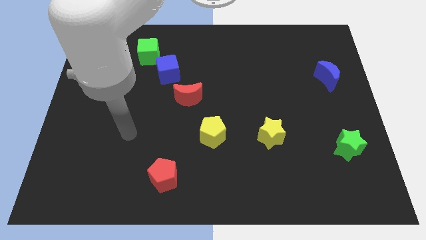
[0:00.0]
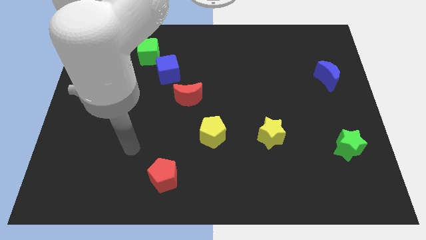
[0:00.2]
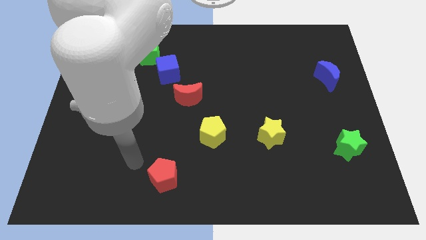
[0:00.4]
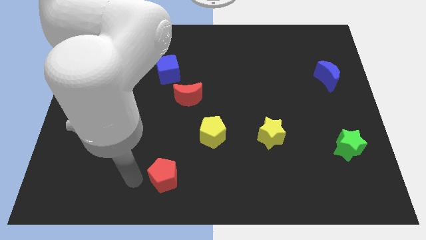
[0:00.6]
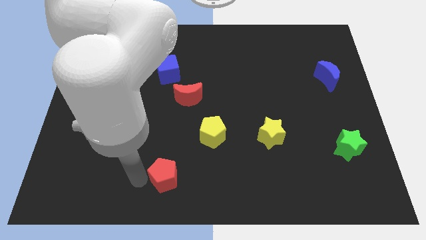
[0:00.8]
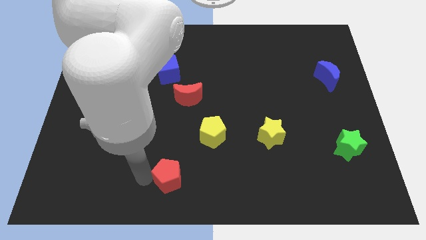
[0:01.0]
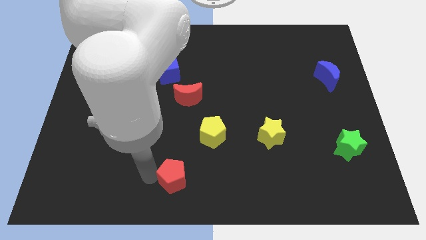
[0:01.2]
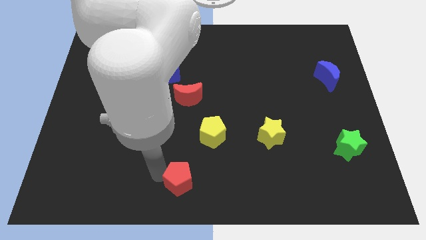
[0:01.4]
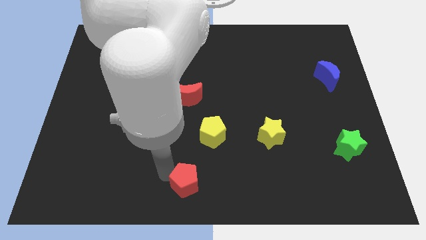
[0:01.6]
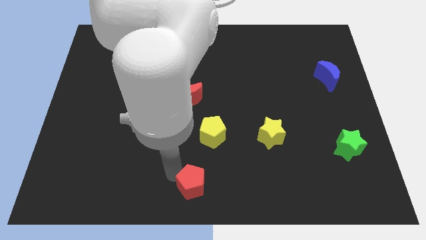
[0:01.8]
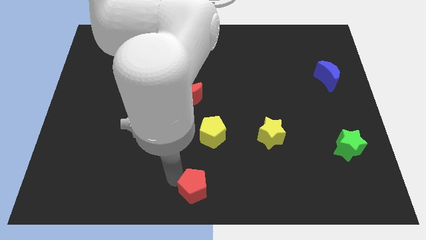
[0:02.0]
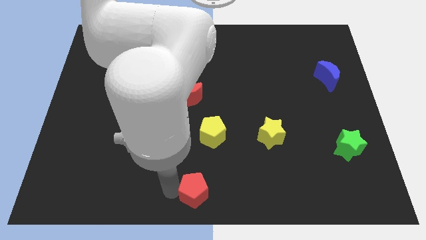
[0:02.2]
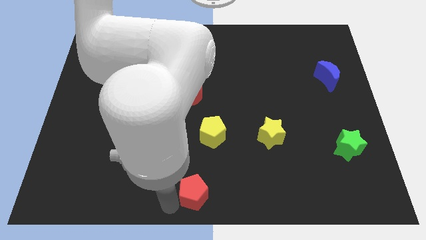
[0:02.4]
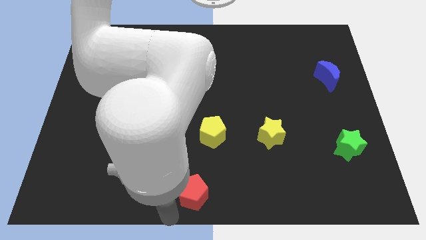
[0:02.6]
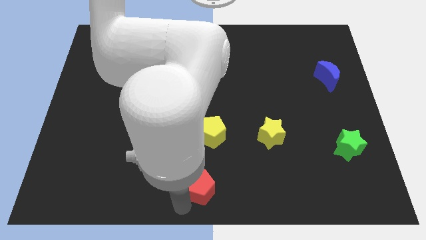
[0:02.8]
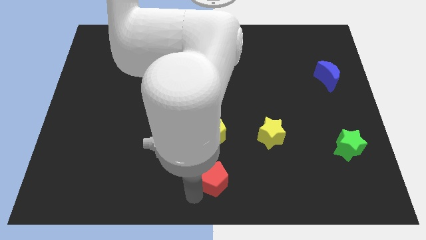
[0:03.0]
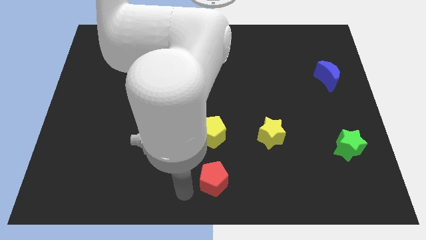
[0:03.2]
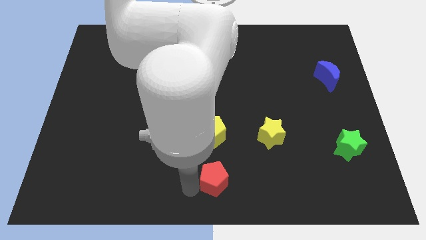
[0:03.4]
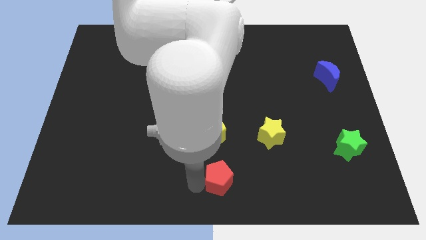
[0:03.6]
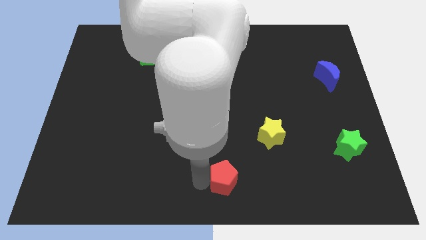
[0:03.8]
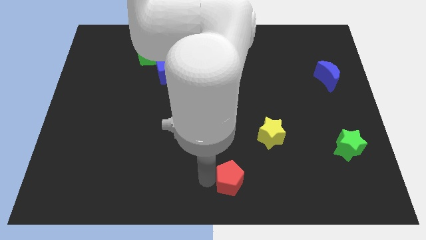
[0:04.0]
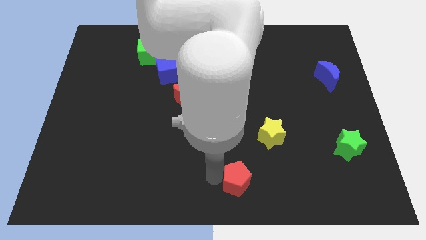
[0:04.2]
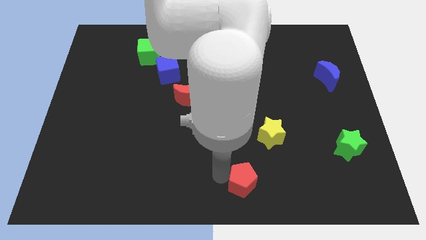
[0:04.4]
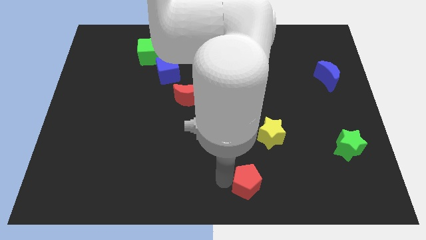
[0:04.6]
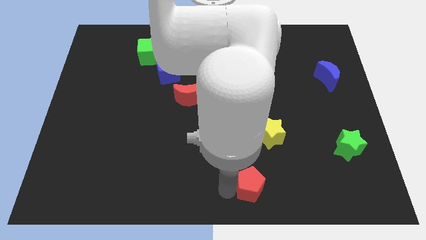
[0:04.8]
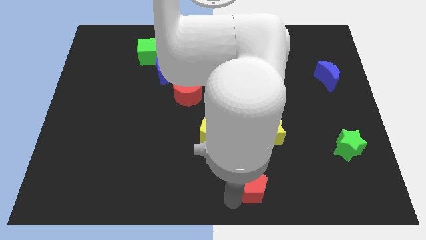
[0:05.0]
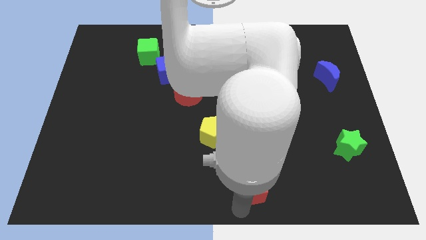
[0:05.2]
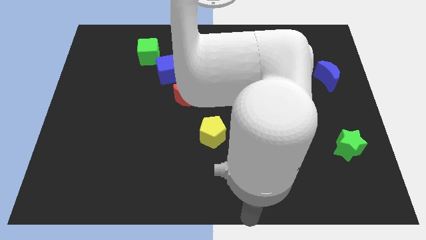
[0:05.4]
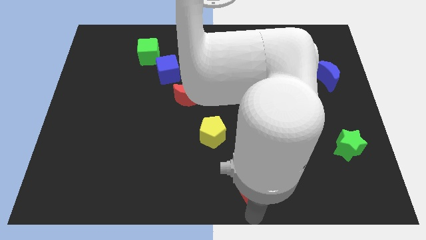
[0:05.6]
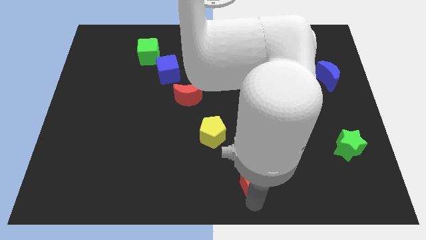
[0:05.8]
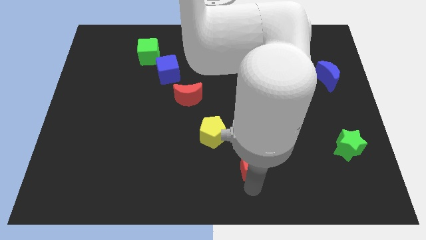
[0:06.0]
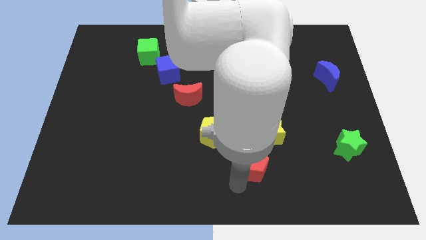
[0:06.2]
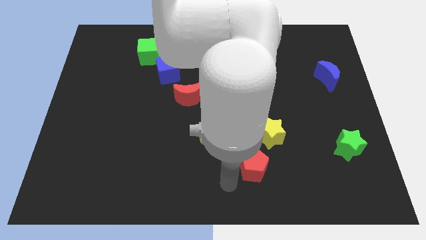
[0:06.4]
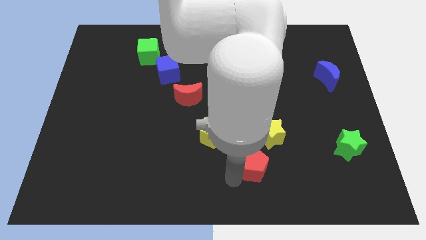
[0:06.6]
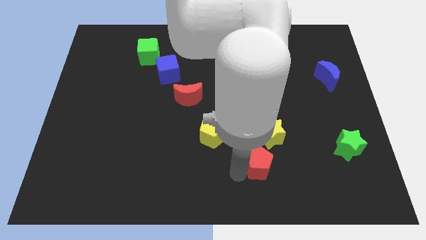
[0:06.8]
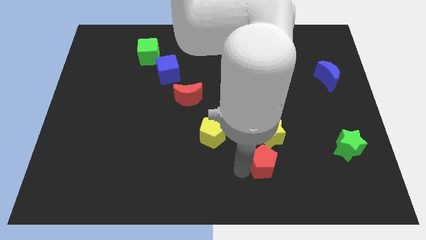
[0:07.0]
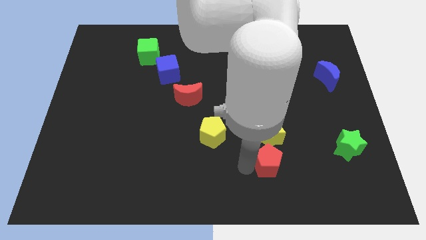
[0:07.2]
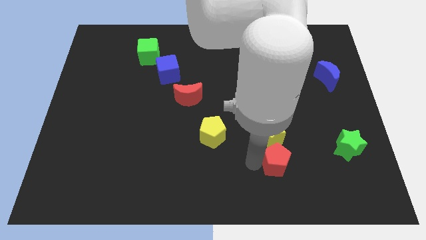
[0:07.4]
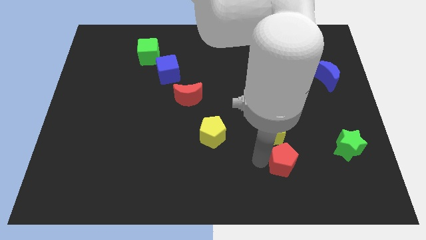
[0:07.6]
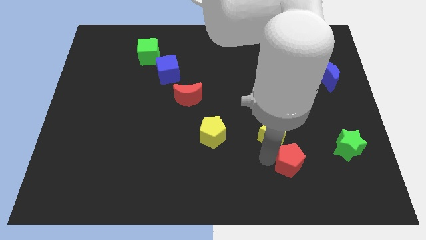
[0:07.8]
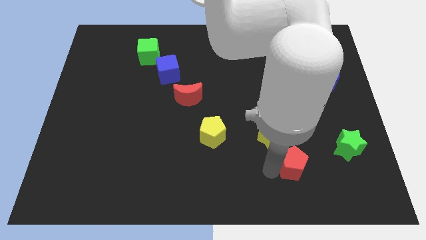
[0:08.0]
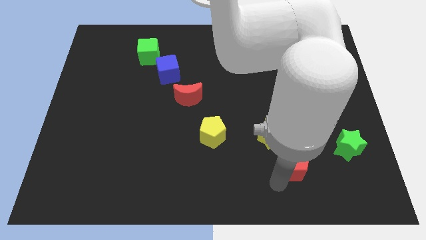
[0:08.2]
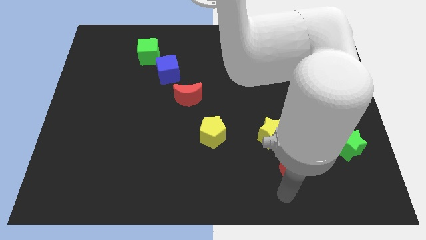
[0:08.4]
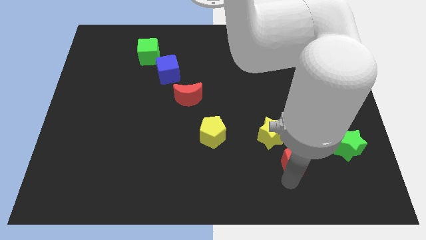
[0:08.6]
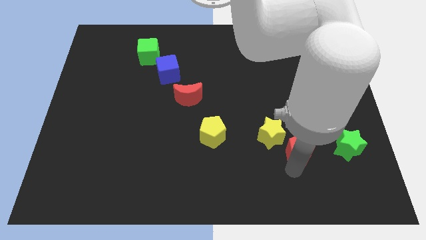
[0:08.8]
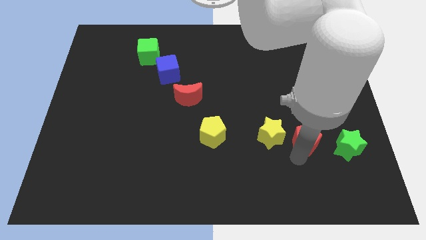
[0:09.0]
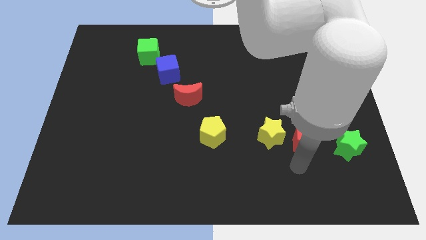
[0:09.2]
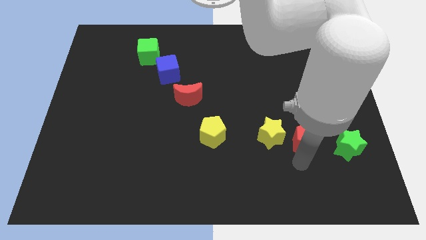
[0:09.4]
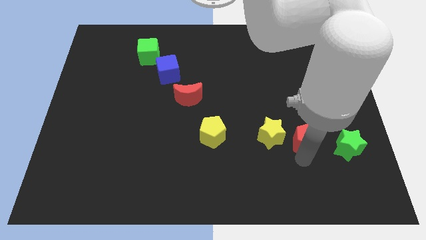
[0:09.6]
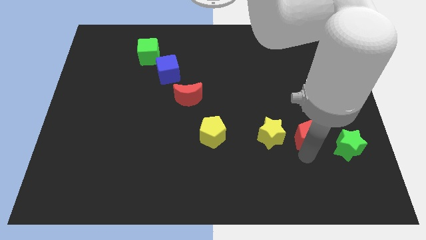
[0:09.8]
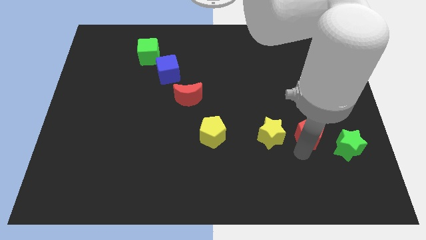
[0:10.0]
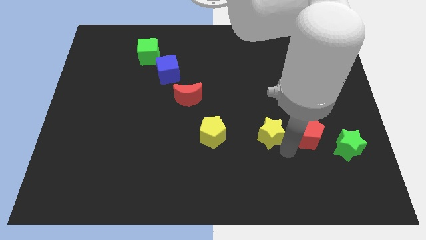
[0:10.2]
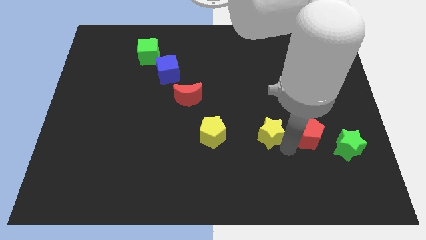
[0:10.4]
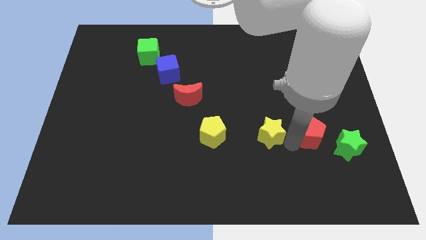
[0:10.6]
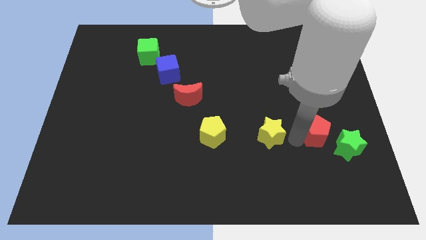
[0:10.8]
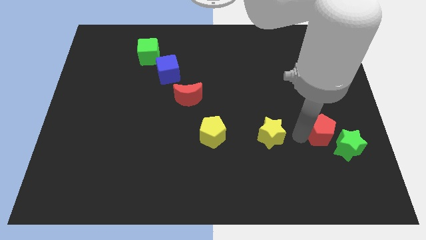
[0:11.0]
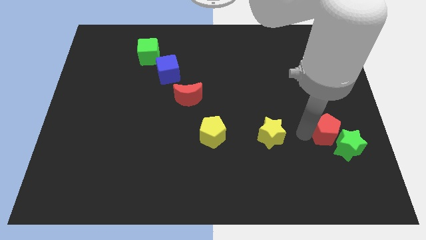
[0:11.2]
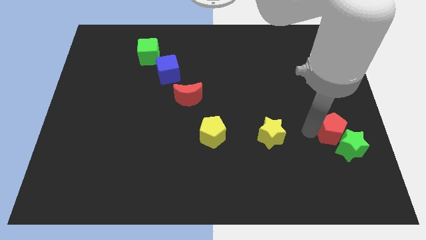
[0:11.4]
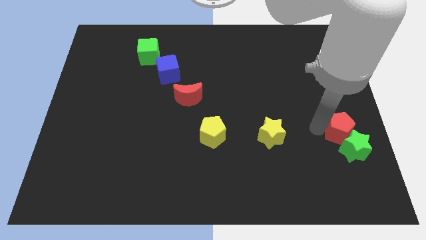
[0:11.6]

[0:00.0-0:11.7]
push the red pentagon to the center right
